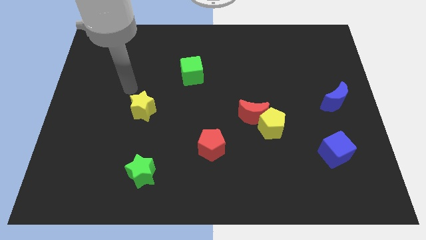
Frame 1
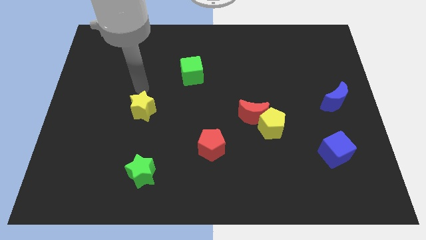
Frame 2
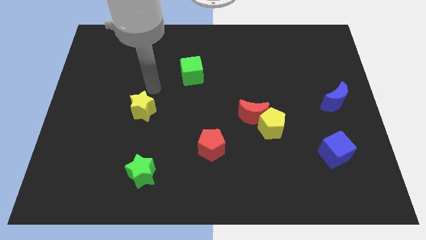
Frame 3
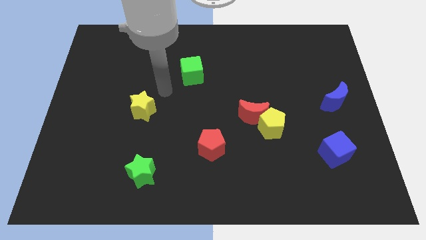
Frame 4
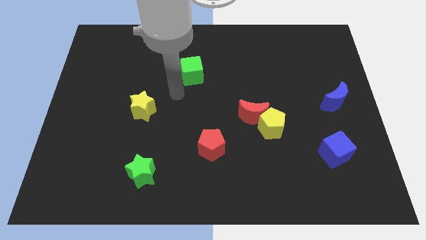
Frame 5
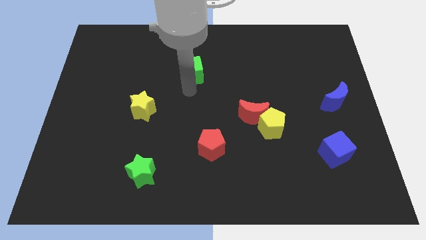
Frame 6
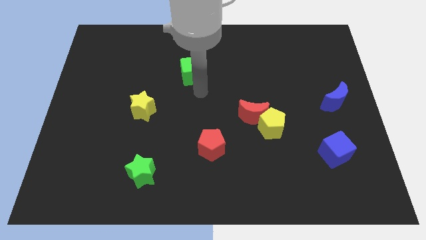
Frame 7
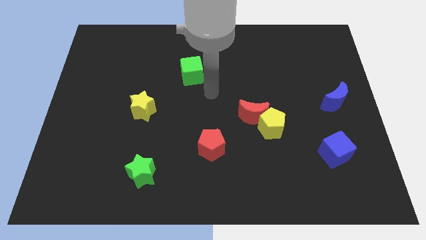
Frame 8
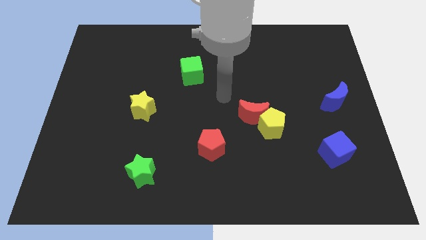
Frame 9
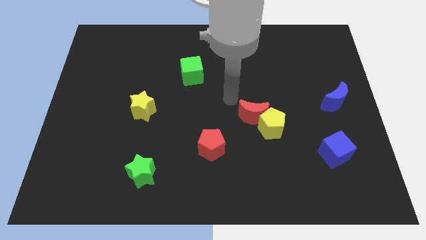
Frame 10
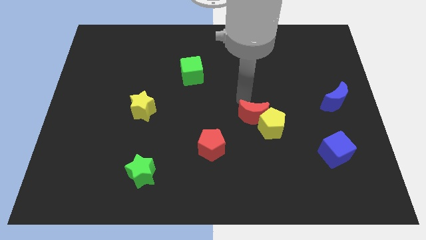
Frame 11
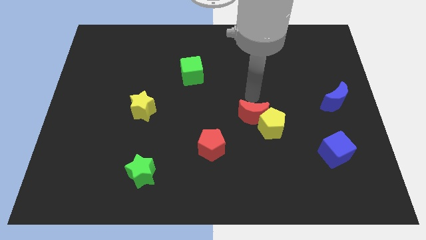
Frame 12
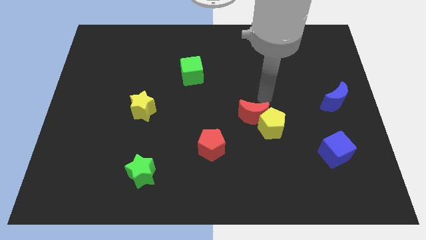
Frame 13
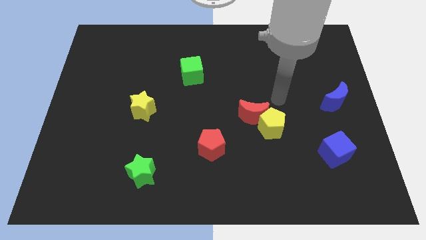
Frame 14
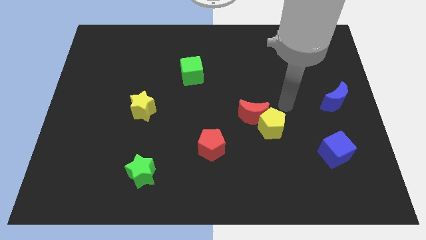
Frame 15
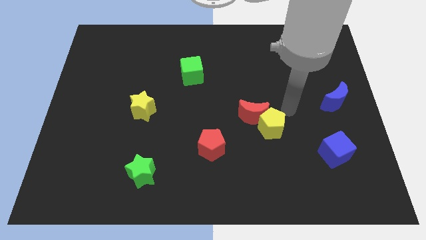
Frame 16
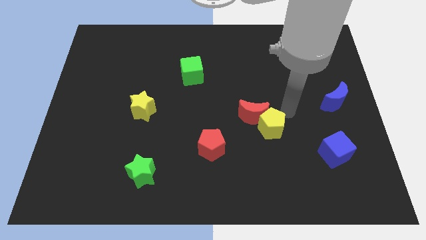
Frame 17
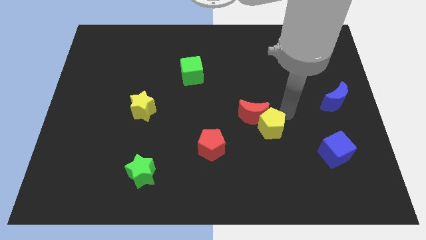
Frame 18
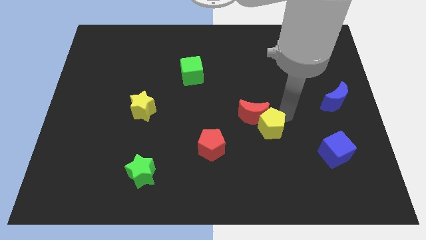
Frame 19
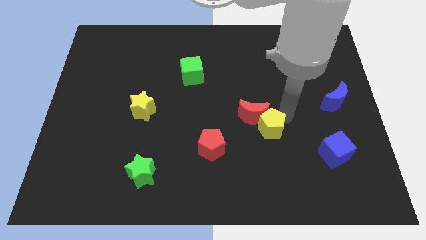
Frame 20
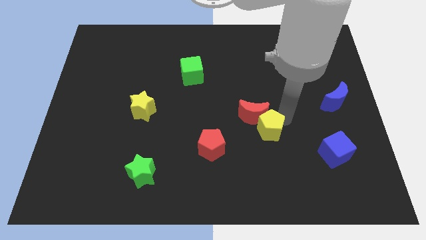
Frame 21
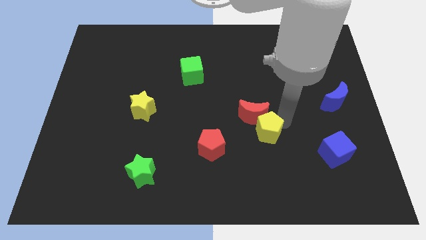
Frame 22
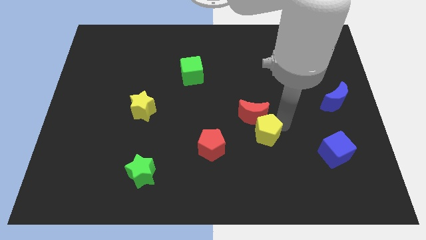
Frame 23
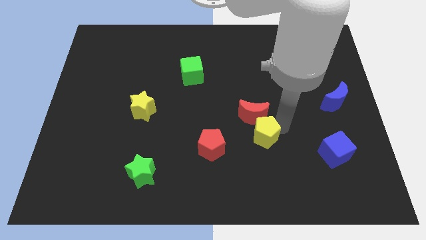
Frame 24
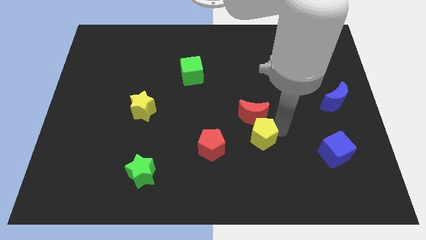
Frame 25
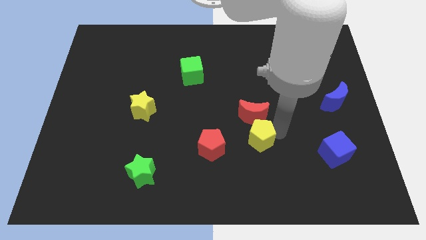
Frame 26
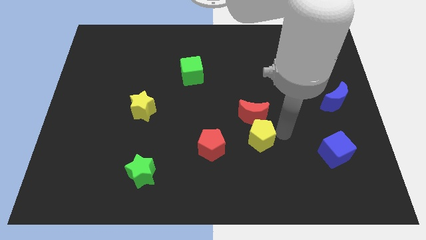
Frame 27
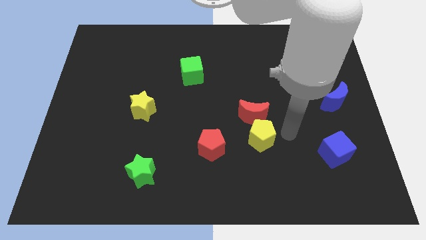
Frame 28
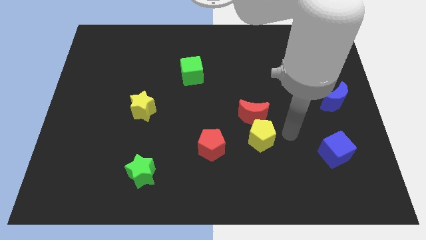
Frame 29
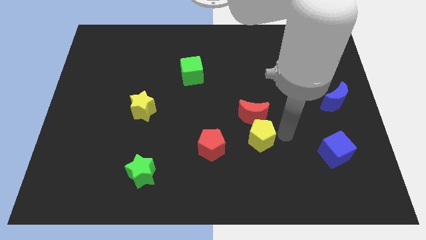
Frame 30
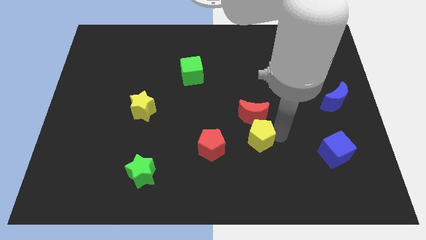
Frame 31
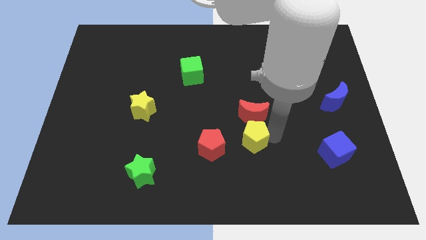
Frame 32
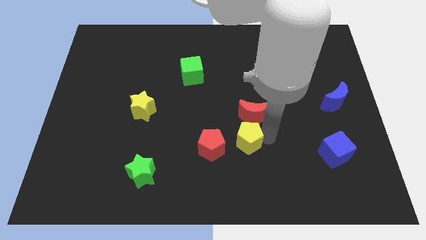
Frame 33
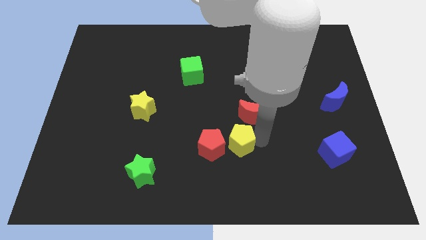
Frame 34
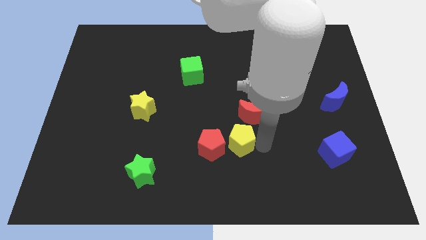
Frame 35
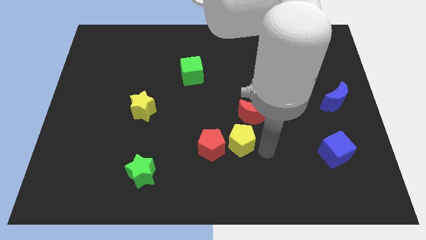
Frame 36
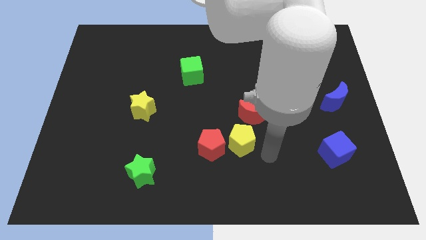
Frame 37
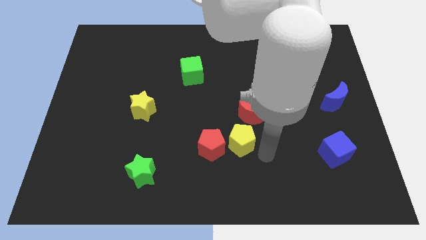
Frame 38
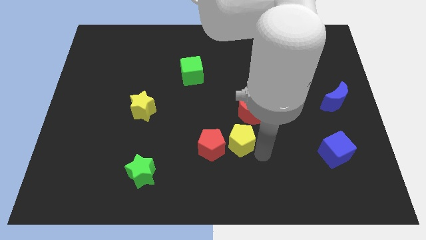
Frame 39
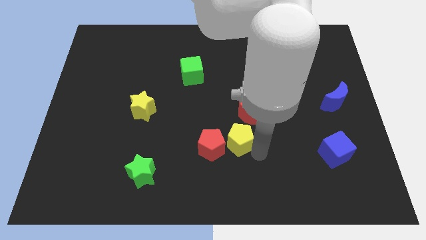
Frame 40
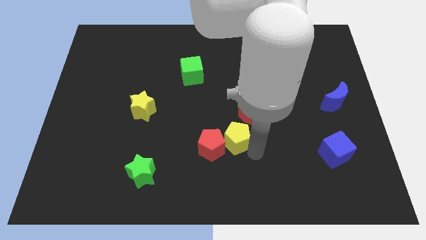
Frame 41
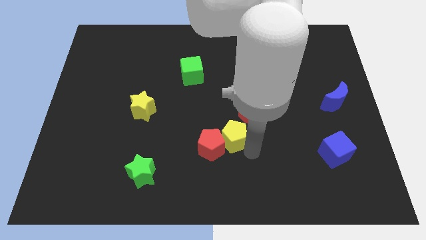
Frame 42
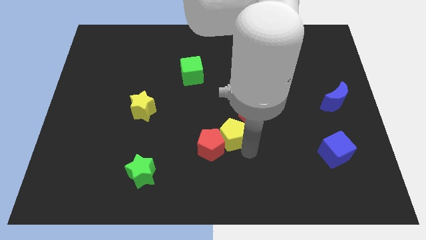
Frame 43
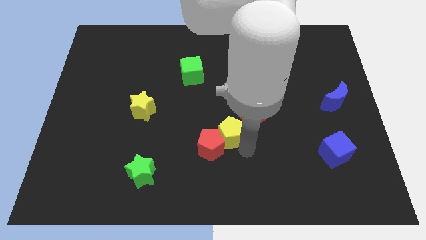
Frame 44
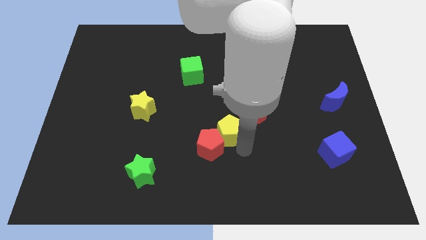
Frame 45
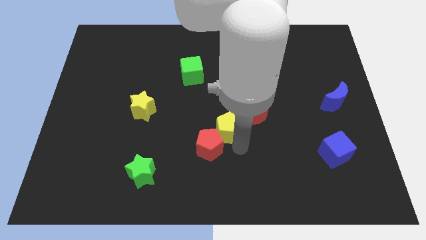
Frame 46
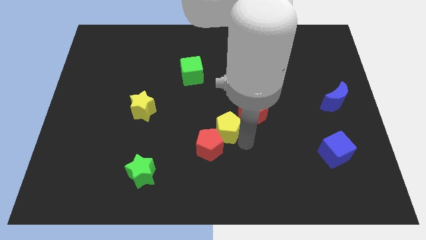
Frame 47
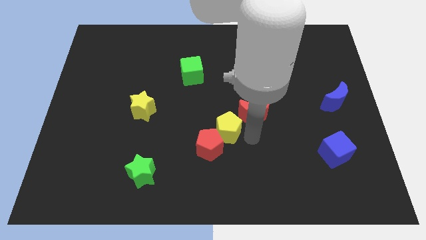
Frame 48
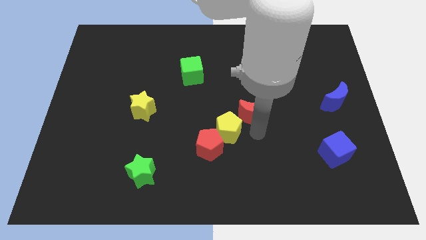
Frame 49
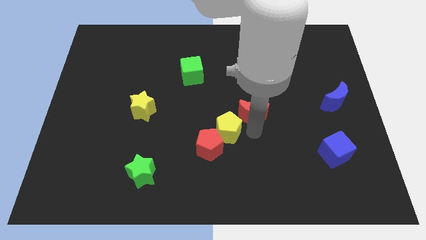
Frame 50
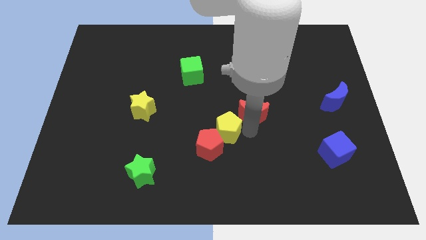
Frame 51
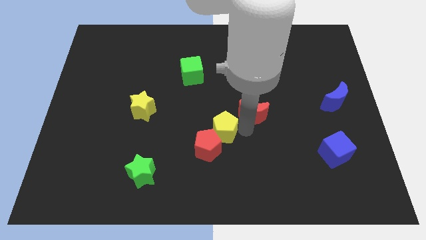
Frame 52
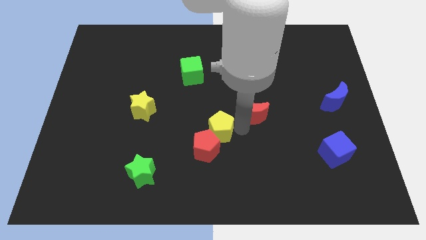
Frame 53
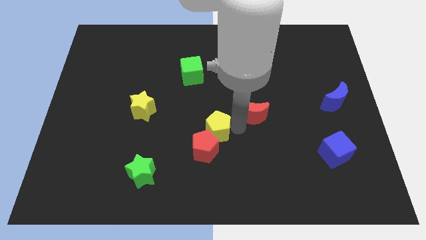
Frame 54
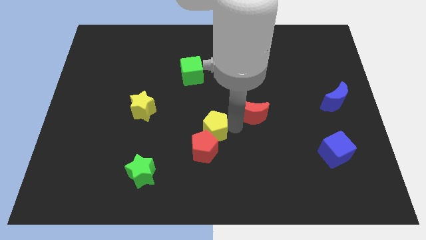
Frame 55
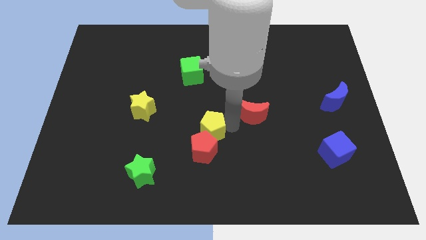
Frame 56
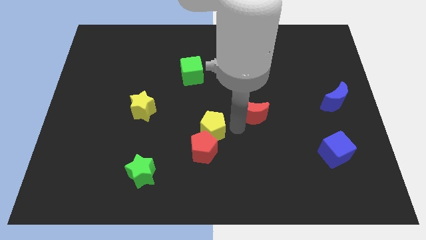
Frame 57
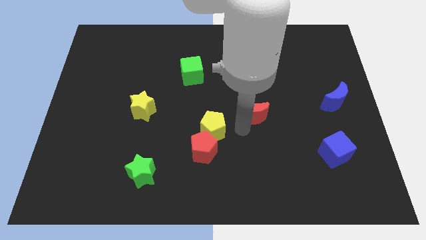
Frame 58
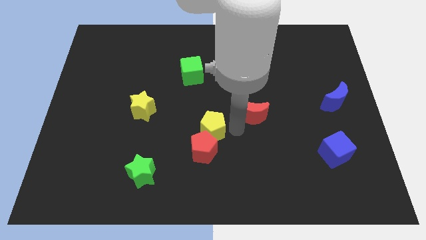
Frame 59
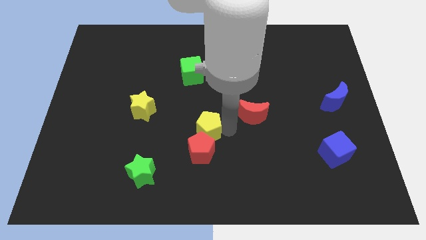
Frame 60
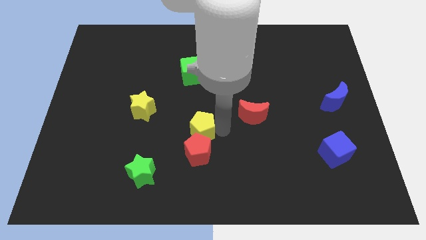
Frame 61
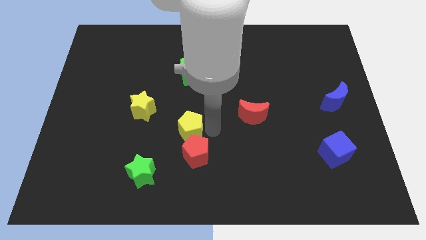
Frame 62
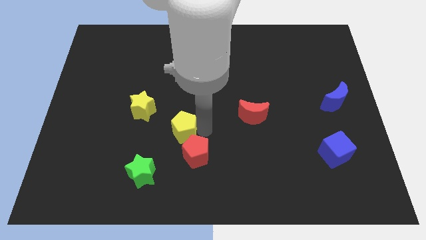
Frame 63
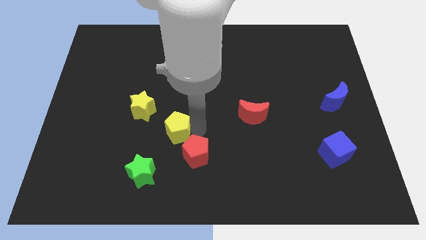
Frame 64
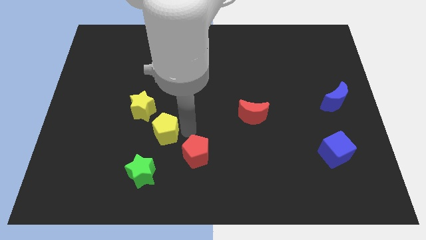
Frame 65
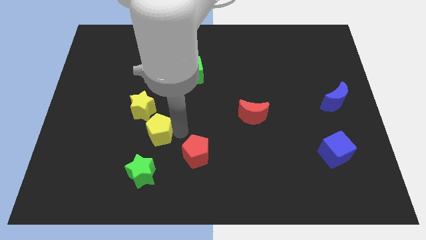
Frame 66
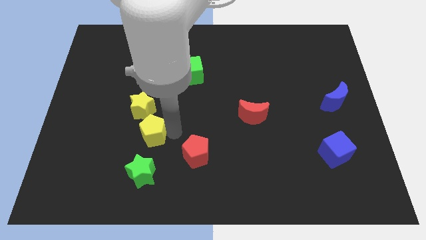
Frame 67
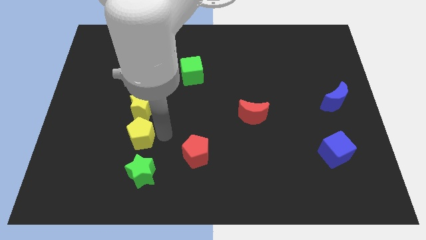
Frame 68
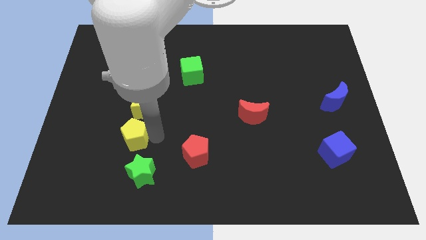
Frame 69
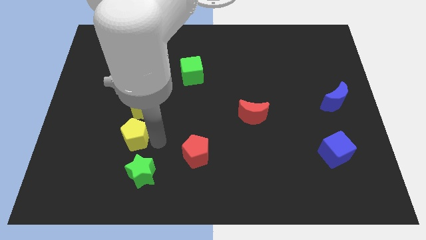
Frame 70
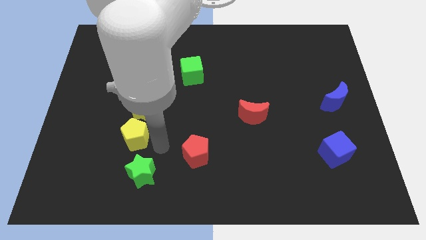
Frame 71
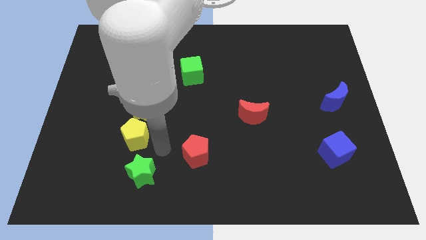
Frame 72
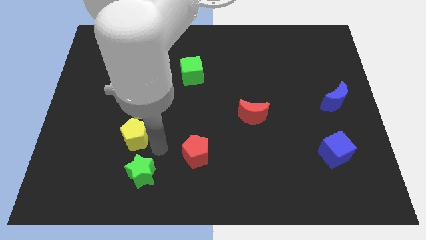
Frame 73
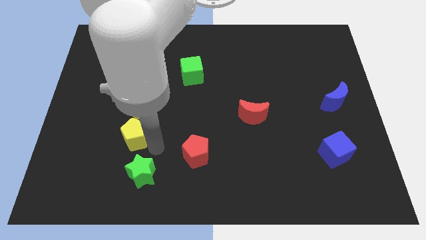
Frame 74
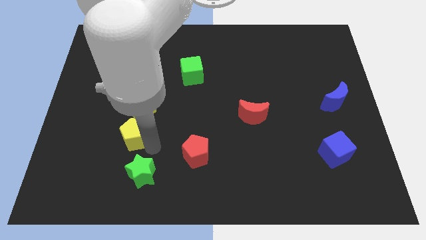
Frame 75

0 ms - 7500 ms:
put the yellow pentagon to the bottom left side of the yellow star
